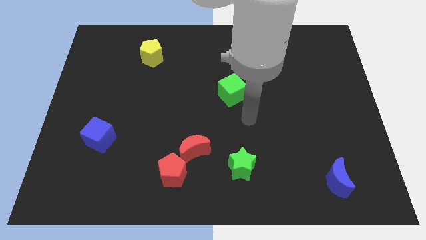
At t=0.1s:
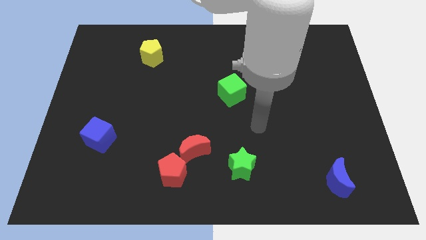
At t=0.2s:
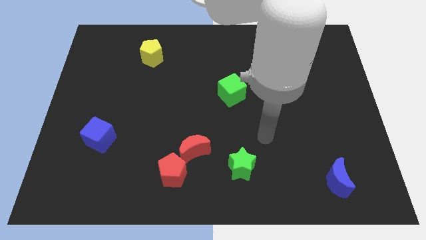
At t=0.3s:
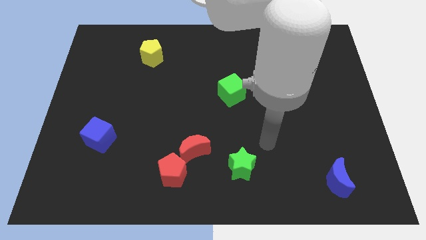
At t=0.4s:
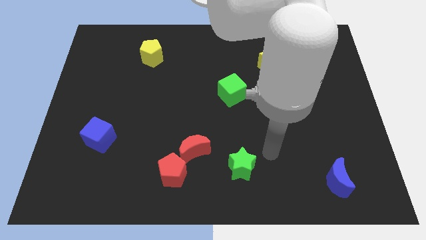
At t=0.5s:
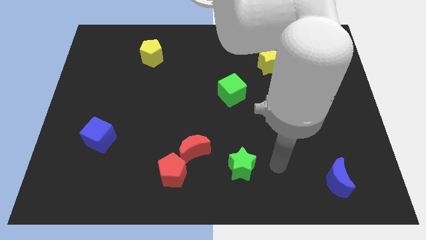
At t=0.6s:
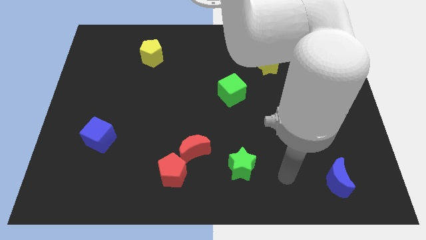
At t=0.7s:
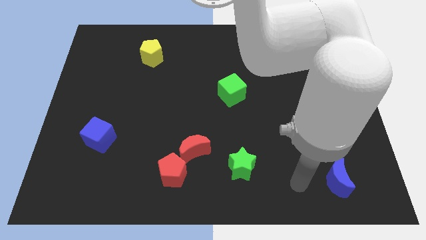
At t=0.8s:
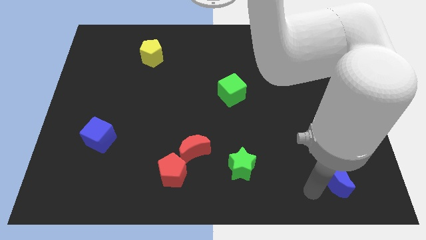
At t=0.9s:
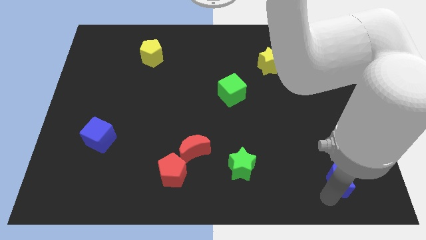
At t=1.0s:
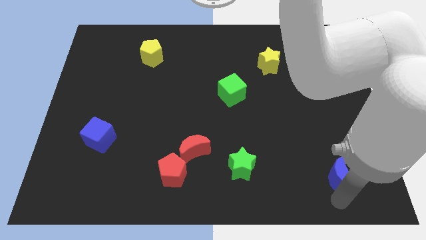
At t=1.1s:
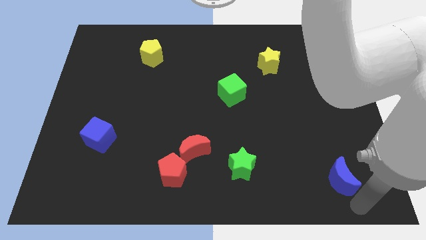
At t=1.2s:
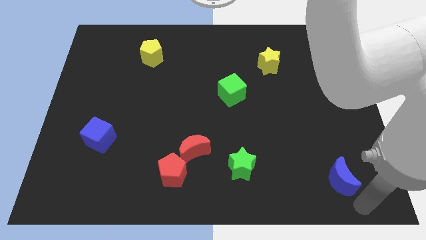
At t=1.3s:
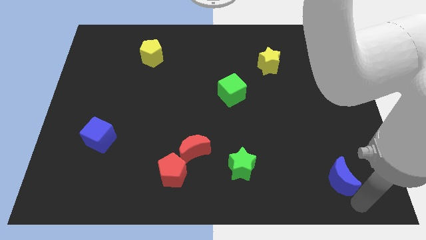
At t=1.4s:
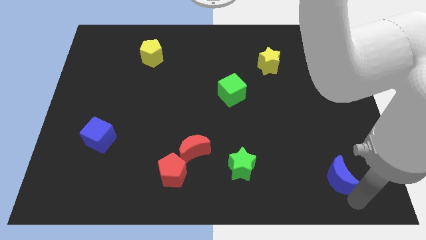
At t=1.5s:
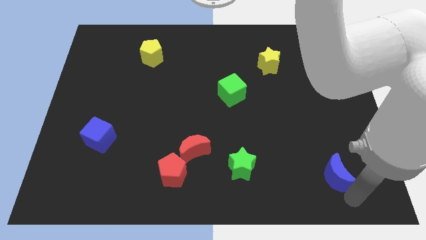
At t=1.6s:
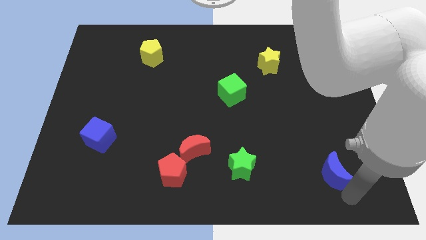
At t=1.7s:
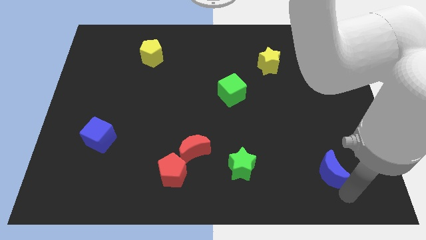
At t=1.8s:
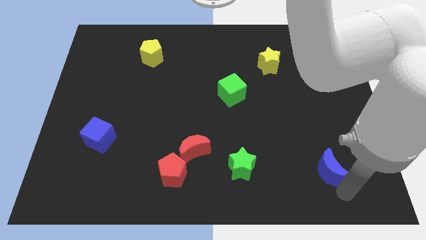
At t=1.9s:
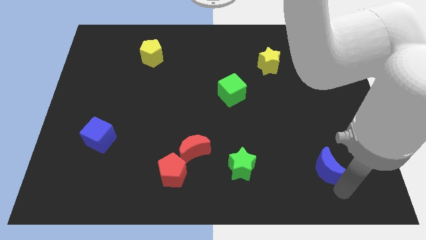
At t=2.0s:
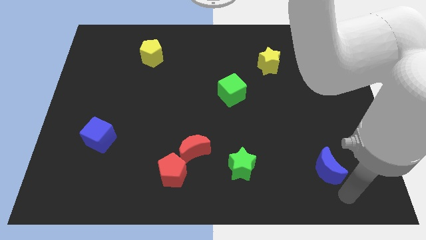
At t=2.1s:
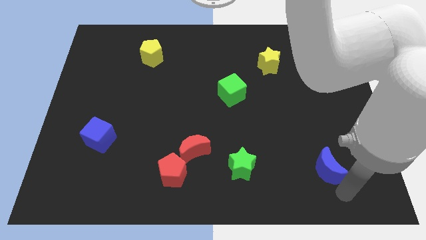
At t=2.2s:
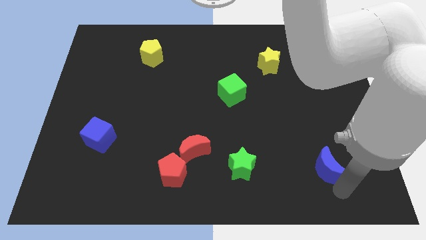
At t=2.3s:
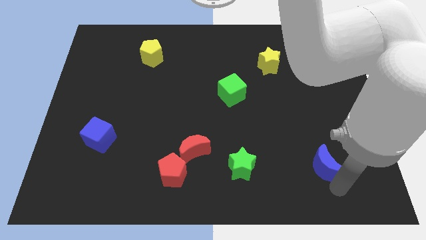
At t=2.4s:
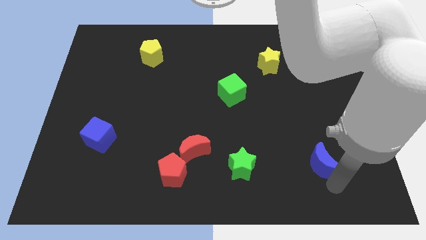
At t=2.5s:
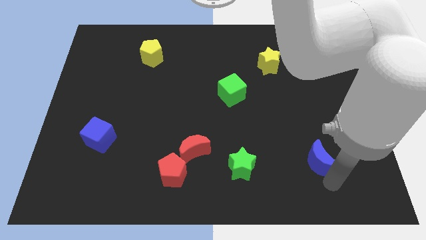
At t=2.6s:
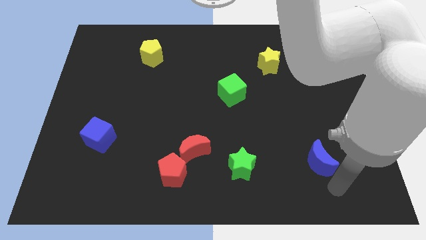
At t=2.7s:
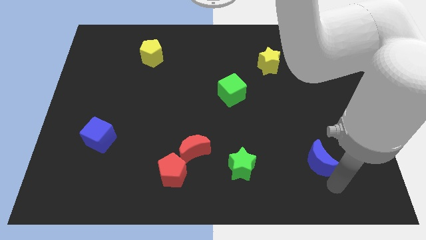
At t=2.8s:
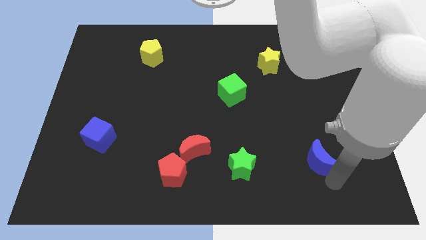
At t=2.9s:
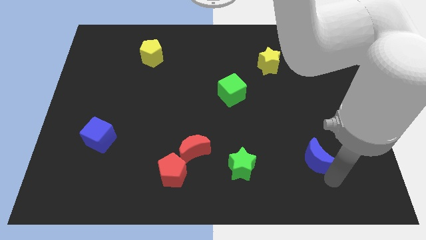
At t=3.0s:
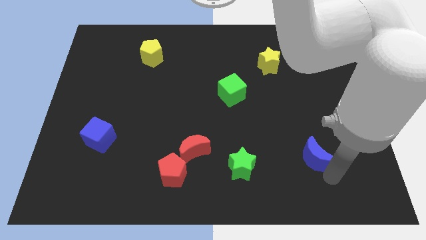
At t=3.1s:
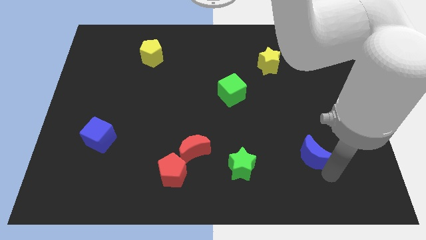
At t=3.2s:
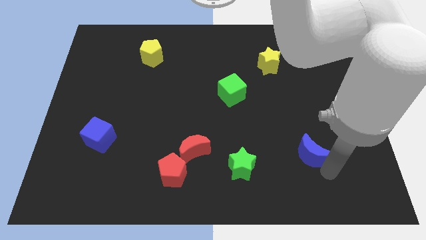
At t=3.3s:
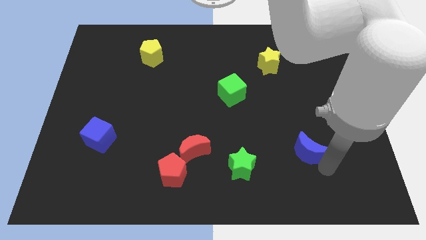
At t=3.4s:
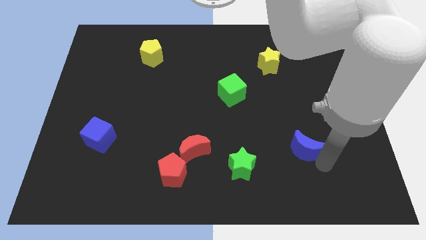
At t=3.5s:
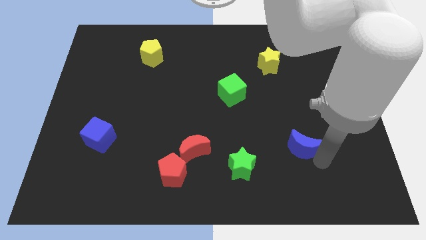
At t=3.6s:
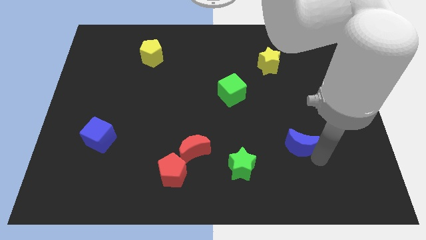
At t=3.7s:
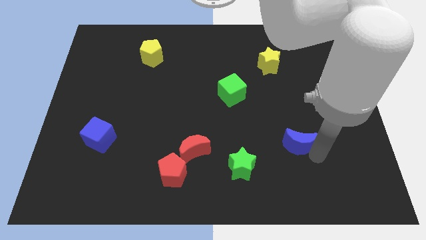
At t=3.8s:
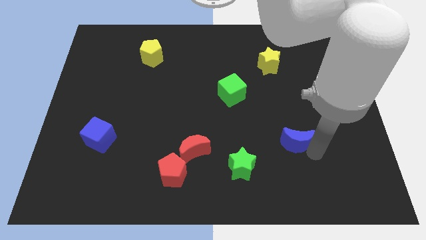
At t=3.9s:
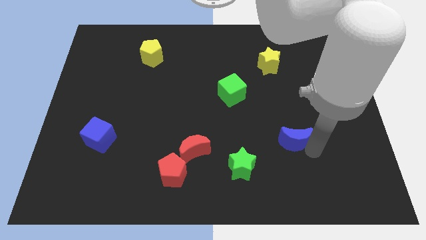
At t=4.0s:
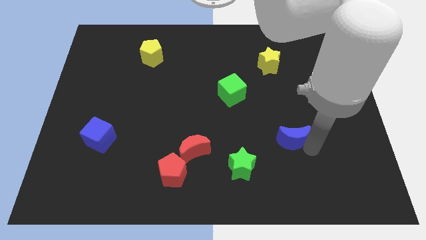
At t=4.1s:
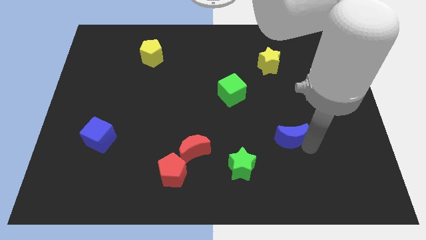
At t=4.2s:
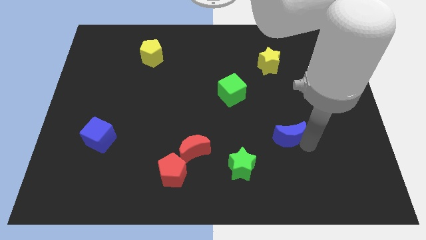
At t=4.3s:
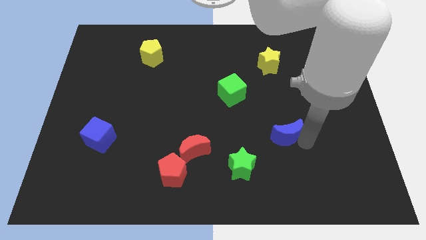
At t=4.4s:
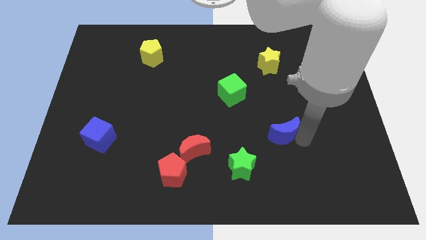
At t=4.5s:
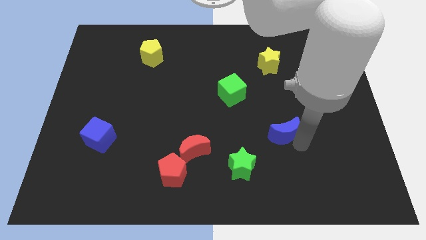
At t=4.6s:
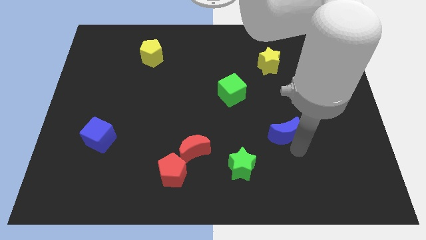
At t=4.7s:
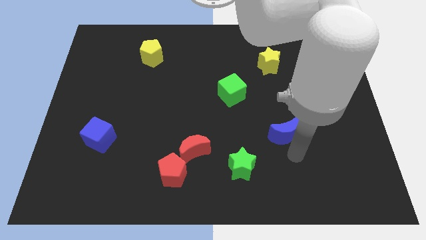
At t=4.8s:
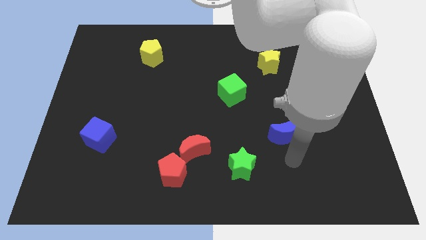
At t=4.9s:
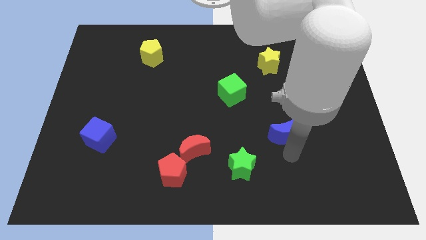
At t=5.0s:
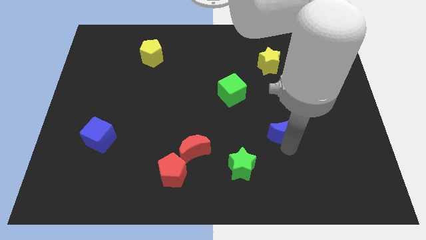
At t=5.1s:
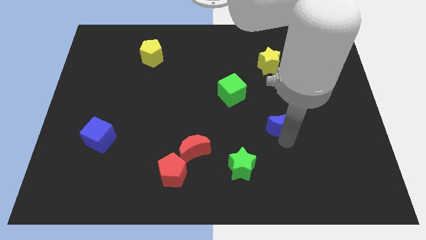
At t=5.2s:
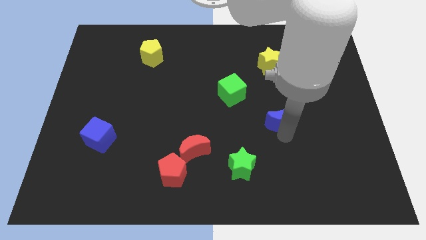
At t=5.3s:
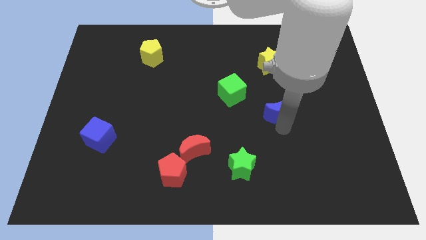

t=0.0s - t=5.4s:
put the blue moon to the bottom of the yellow star

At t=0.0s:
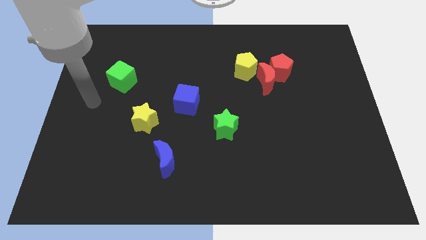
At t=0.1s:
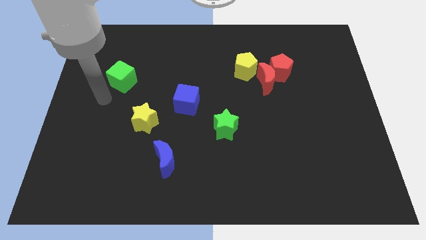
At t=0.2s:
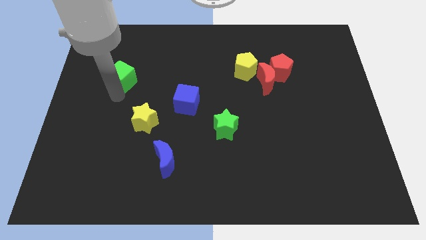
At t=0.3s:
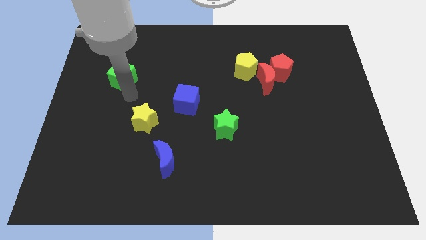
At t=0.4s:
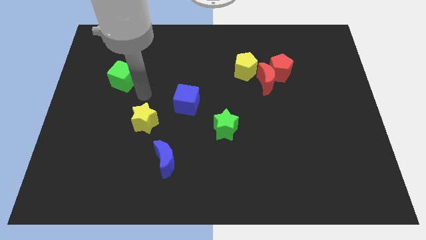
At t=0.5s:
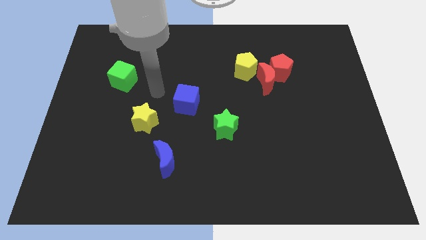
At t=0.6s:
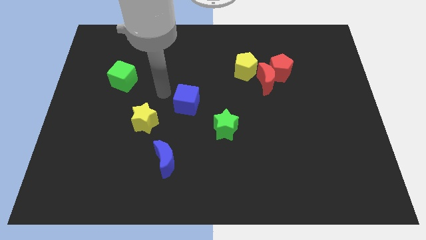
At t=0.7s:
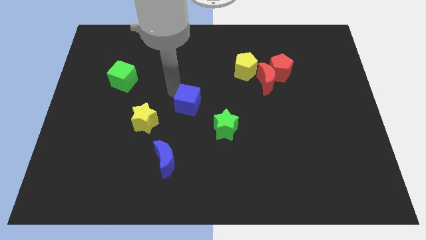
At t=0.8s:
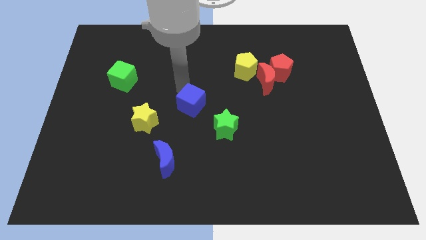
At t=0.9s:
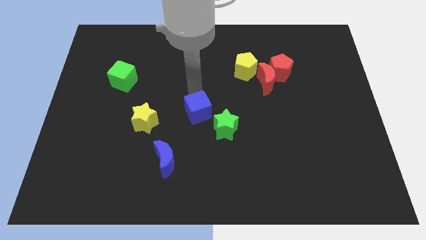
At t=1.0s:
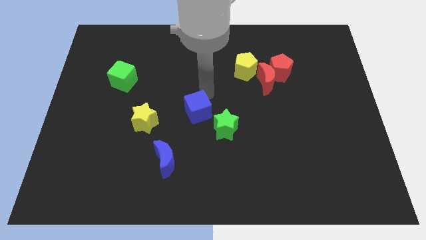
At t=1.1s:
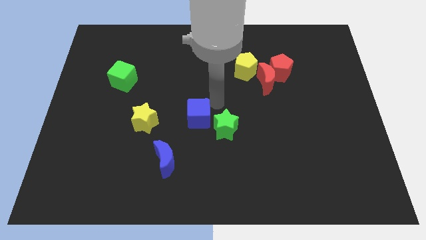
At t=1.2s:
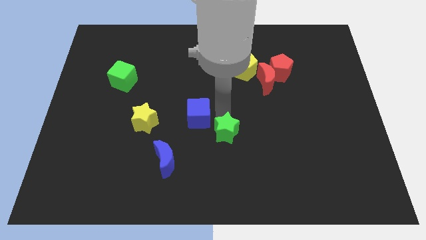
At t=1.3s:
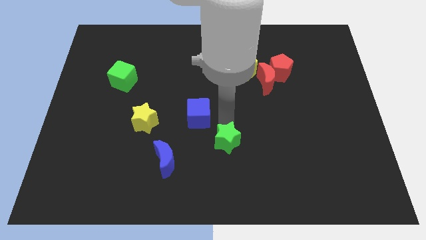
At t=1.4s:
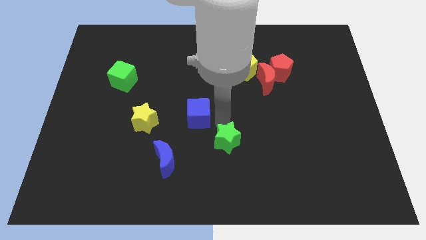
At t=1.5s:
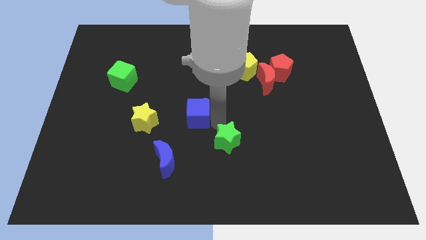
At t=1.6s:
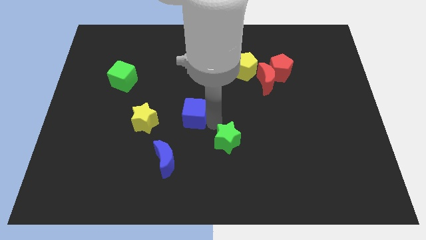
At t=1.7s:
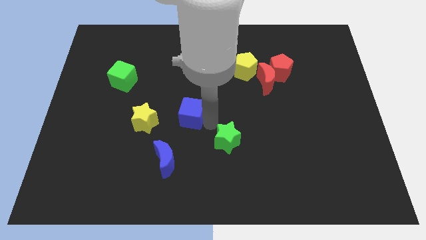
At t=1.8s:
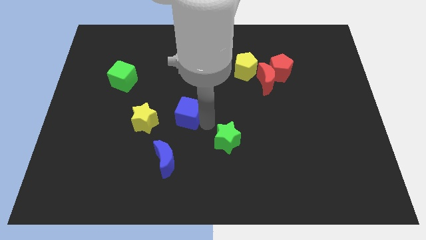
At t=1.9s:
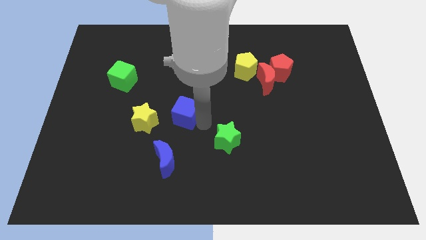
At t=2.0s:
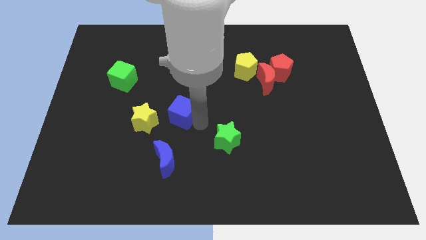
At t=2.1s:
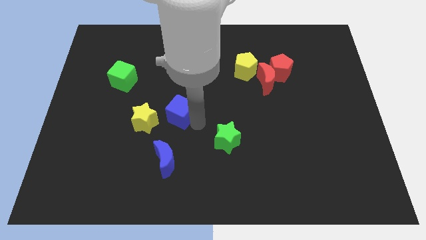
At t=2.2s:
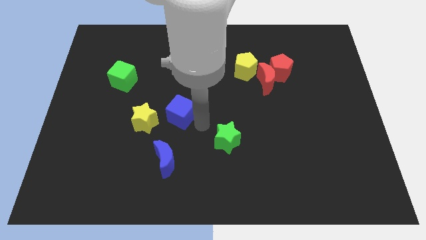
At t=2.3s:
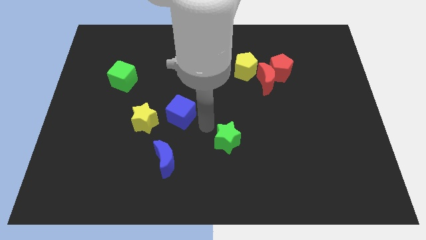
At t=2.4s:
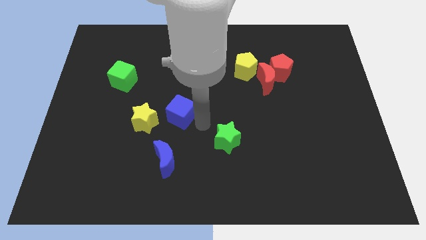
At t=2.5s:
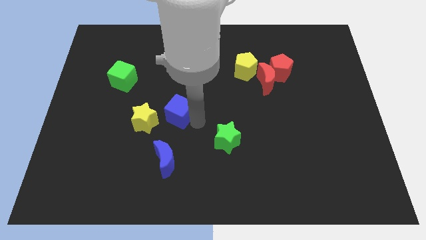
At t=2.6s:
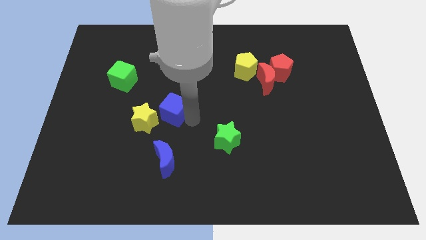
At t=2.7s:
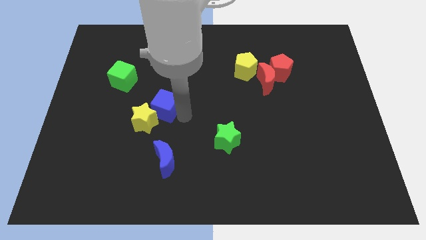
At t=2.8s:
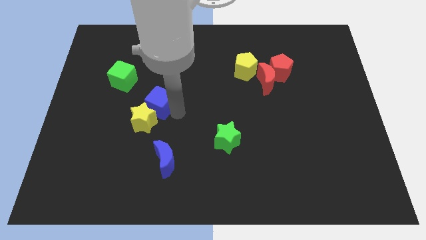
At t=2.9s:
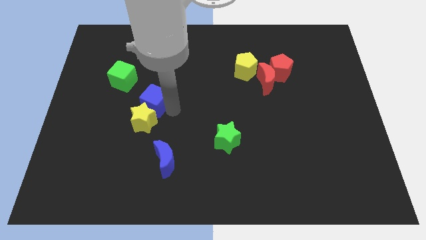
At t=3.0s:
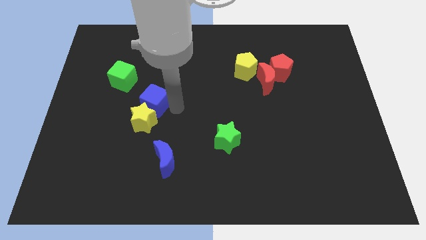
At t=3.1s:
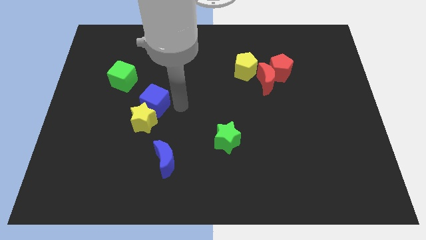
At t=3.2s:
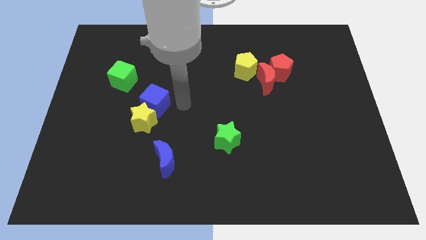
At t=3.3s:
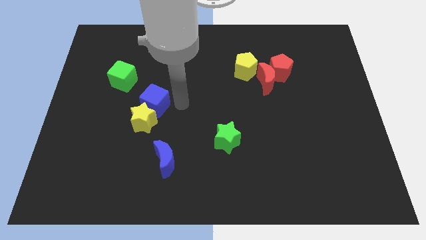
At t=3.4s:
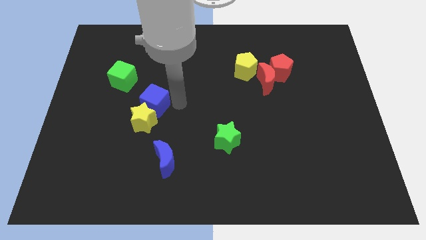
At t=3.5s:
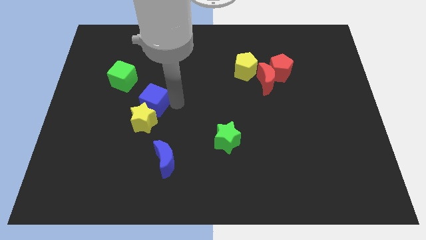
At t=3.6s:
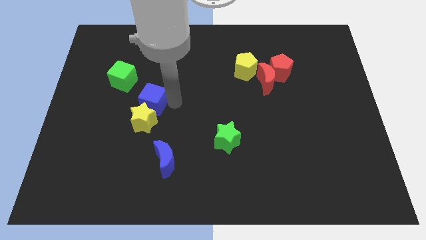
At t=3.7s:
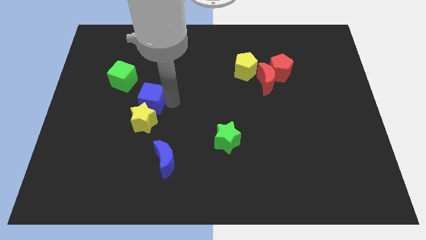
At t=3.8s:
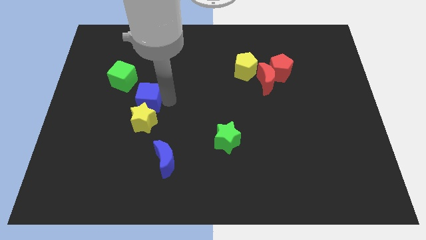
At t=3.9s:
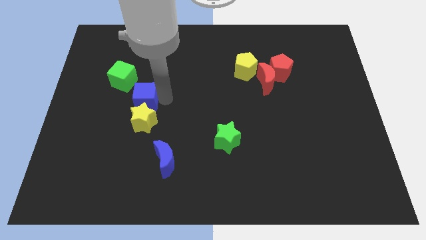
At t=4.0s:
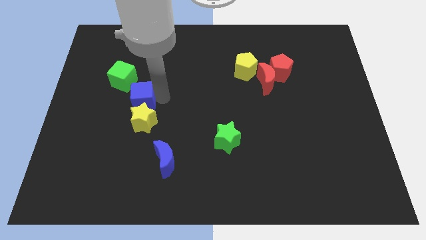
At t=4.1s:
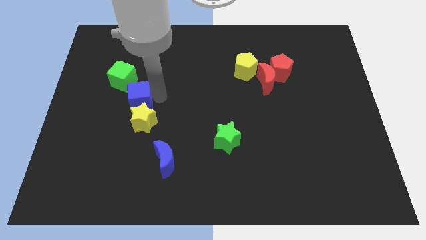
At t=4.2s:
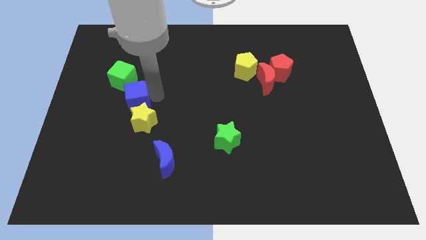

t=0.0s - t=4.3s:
slide the blue cube below the green cube
